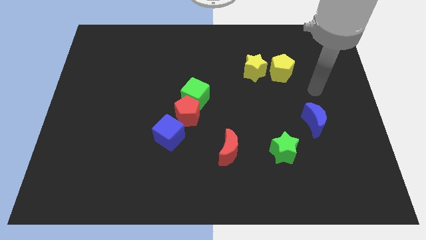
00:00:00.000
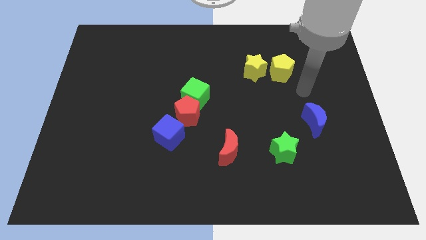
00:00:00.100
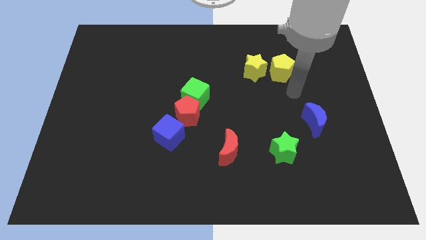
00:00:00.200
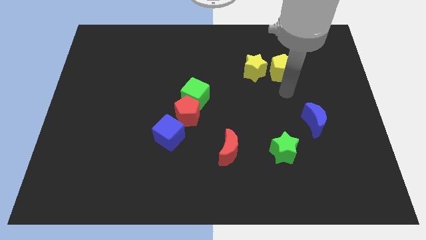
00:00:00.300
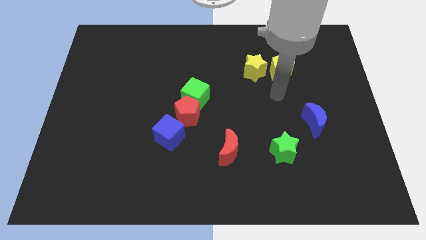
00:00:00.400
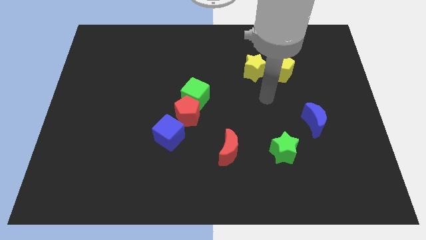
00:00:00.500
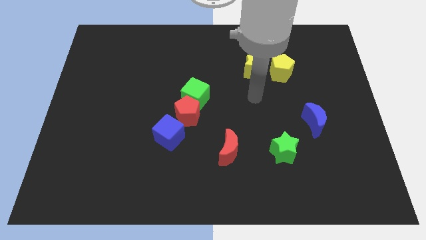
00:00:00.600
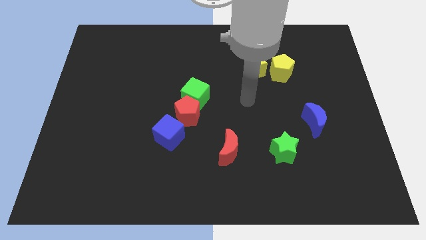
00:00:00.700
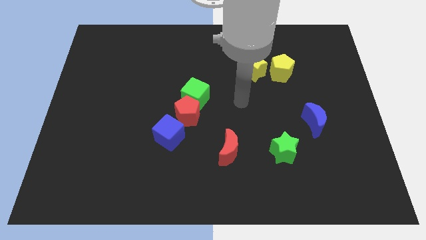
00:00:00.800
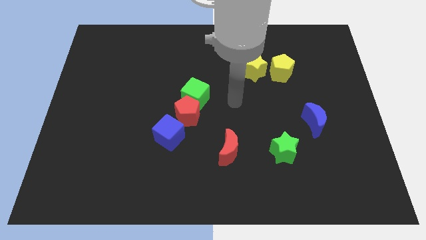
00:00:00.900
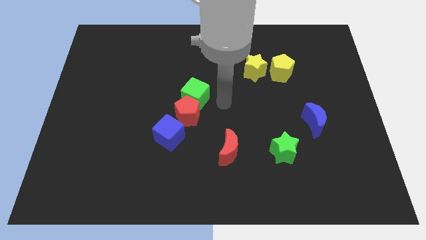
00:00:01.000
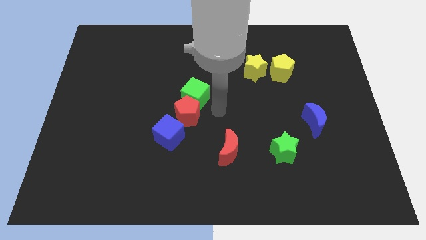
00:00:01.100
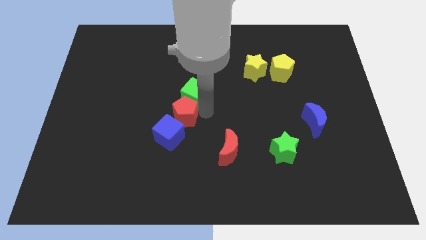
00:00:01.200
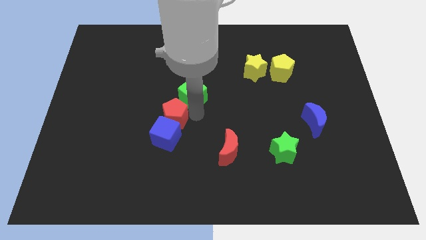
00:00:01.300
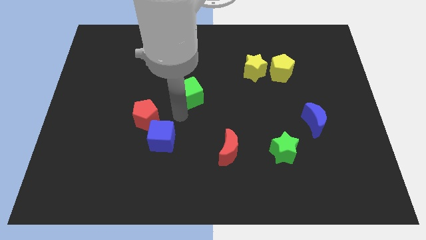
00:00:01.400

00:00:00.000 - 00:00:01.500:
move the green cube away from the red pentagon

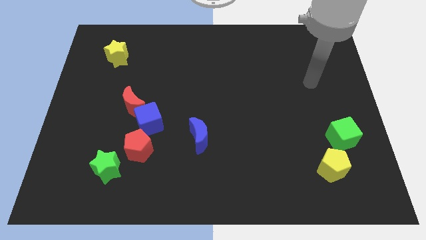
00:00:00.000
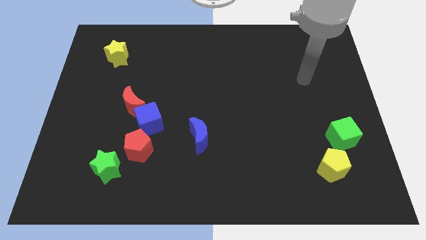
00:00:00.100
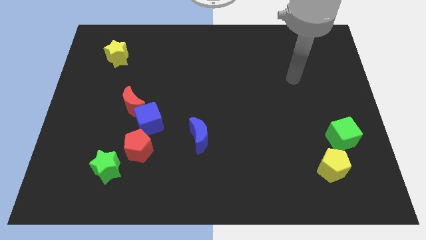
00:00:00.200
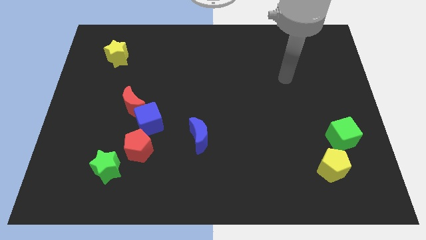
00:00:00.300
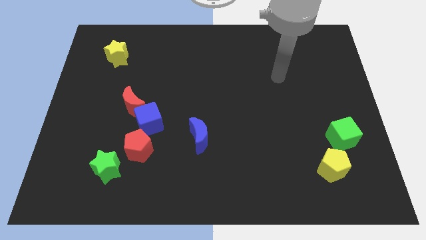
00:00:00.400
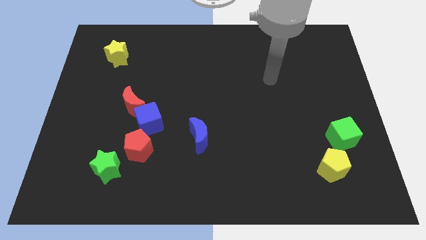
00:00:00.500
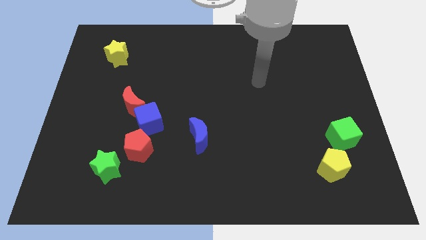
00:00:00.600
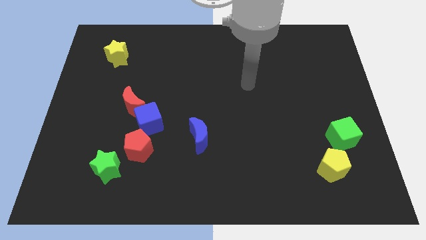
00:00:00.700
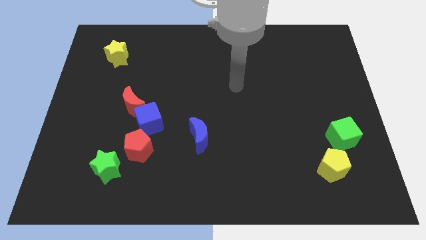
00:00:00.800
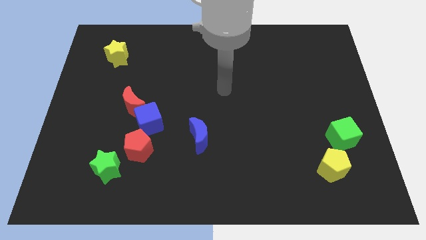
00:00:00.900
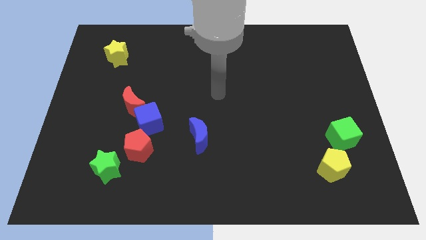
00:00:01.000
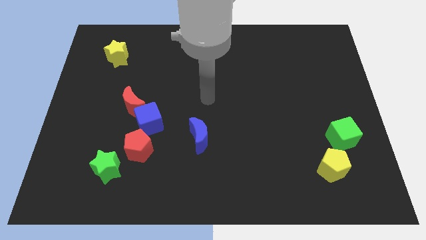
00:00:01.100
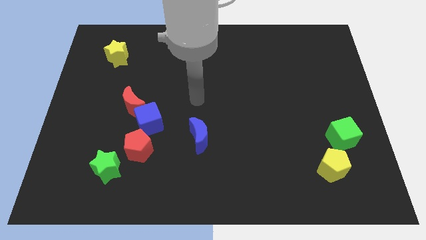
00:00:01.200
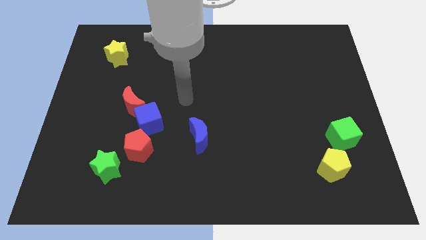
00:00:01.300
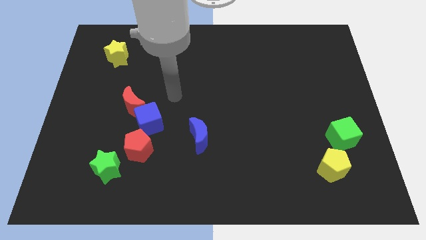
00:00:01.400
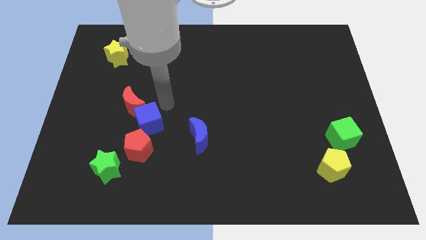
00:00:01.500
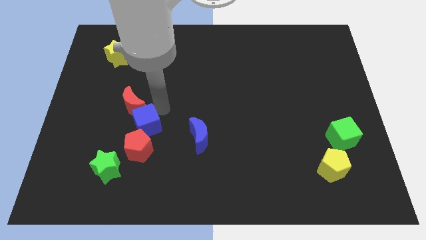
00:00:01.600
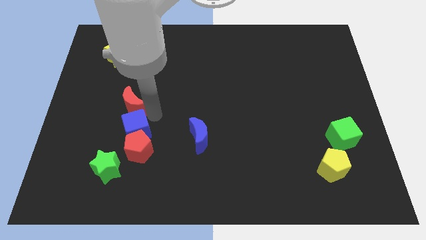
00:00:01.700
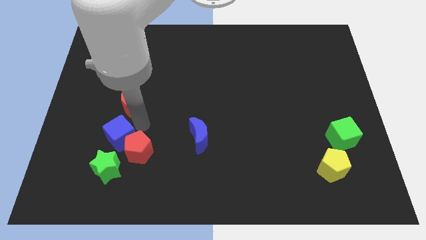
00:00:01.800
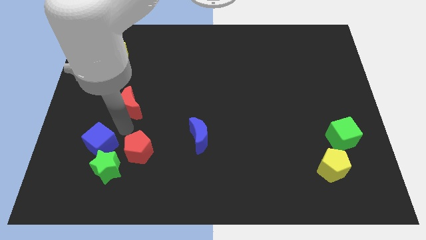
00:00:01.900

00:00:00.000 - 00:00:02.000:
pull the red moon apart from the blue cube

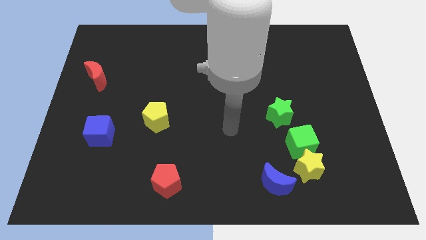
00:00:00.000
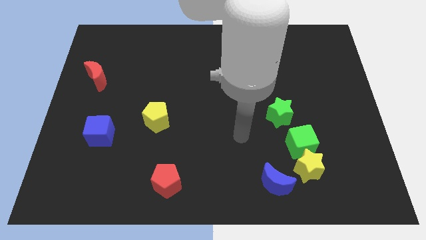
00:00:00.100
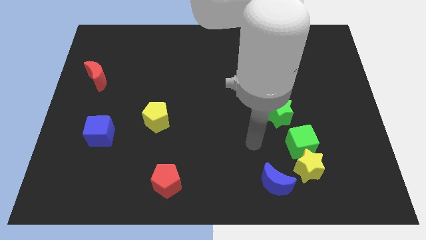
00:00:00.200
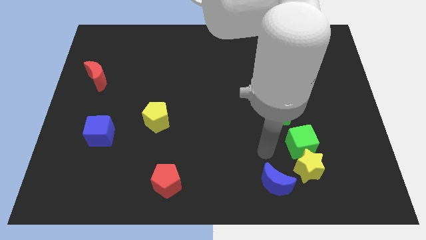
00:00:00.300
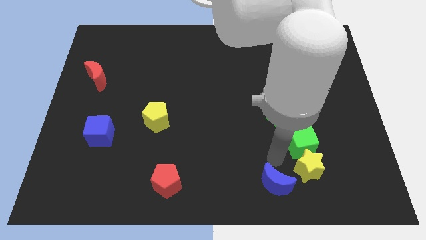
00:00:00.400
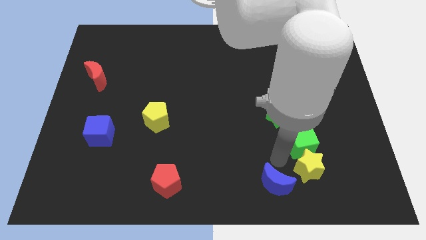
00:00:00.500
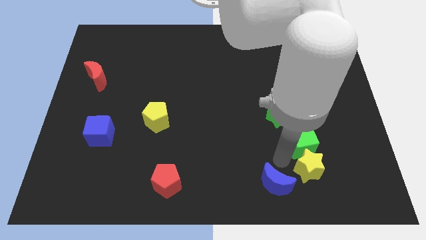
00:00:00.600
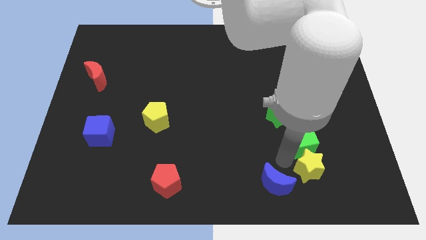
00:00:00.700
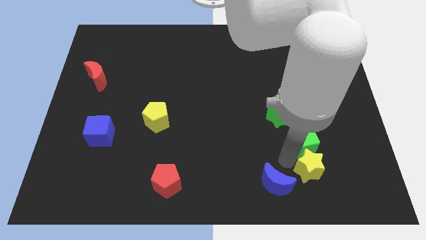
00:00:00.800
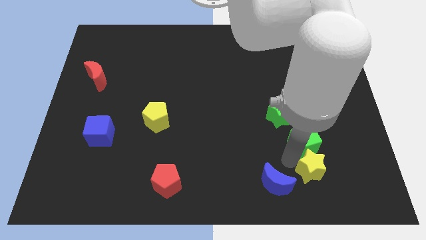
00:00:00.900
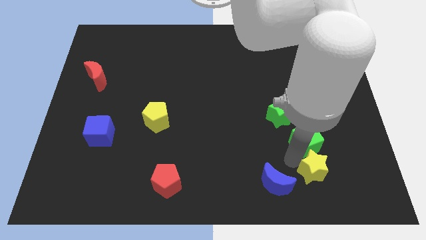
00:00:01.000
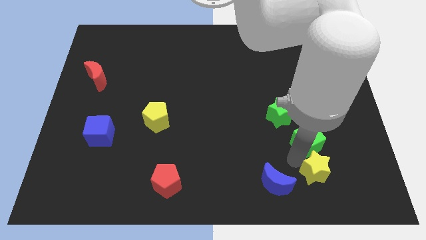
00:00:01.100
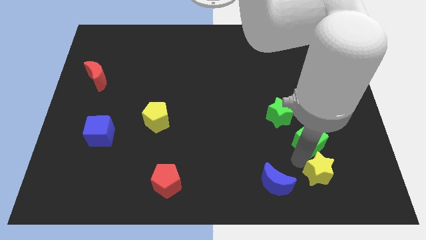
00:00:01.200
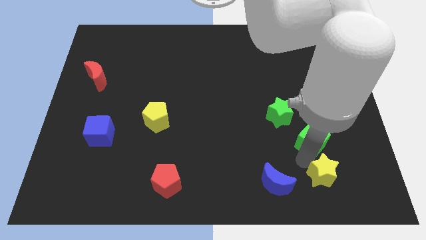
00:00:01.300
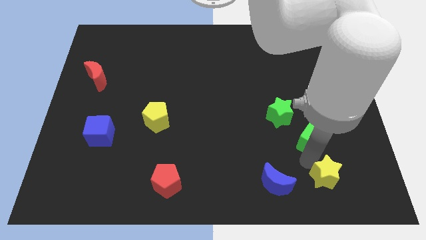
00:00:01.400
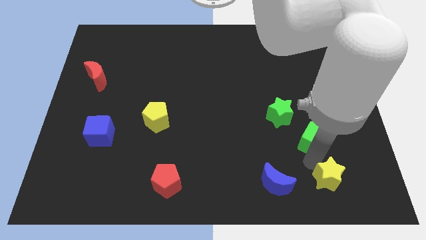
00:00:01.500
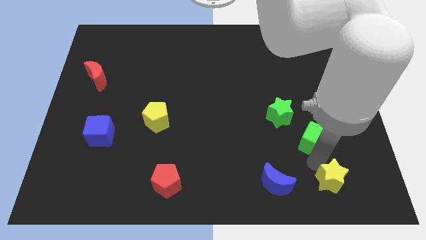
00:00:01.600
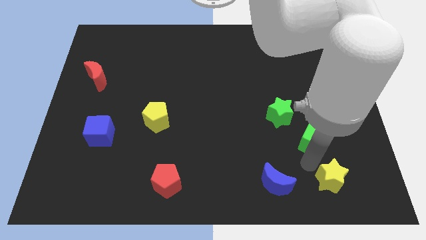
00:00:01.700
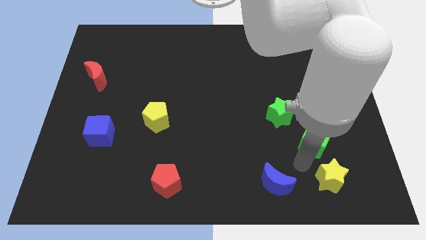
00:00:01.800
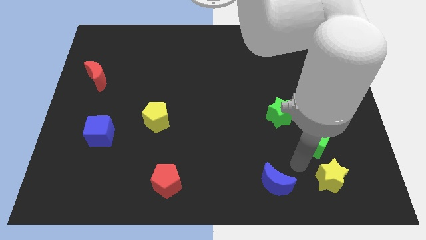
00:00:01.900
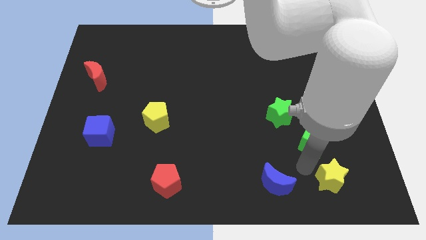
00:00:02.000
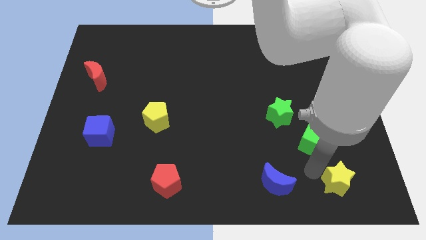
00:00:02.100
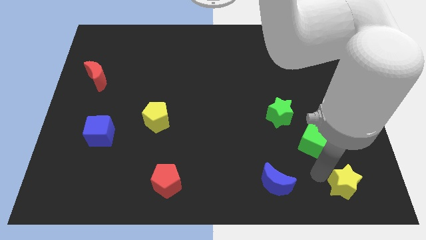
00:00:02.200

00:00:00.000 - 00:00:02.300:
move the yellow star away from the green cube and blue moon

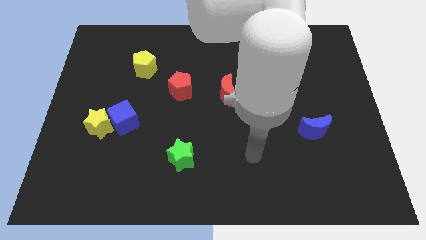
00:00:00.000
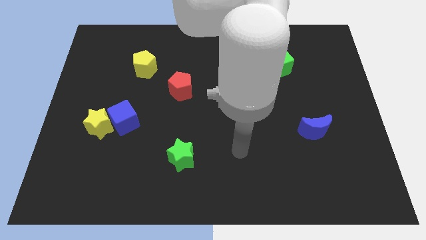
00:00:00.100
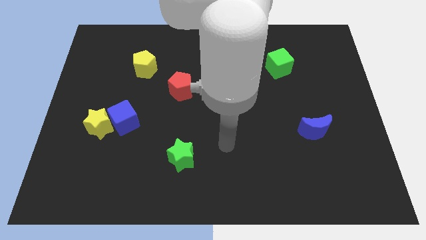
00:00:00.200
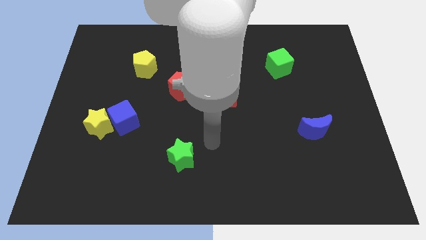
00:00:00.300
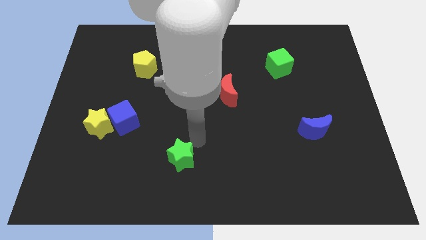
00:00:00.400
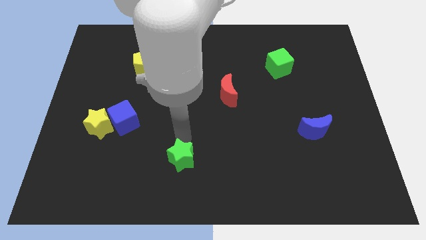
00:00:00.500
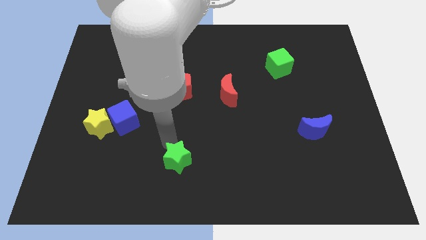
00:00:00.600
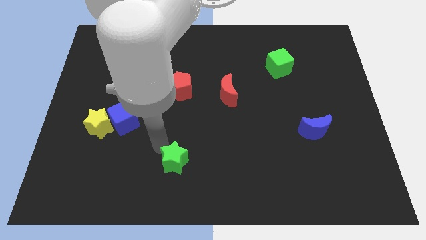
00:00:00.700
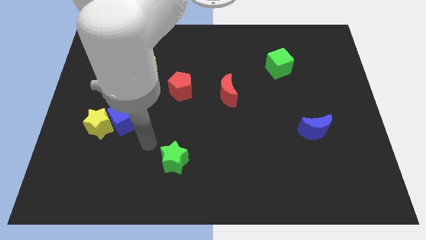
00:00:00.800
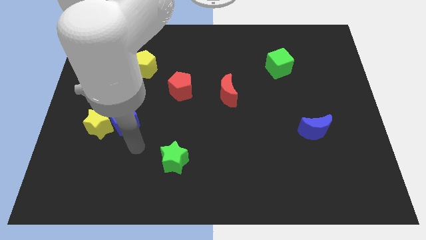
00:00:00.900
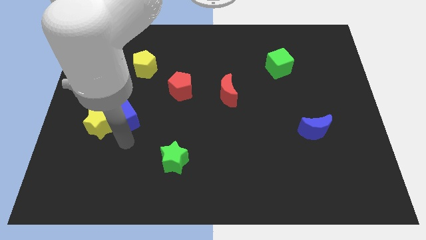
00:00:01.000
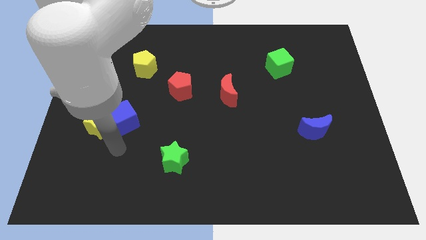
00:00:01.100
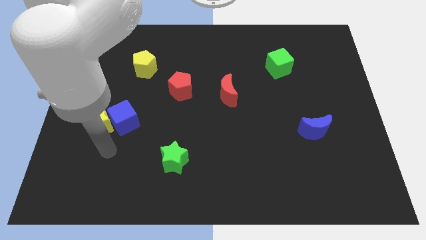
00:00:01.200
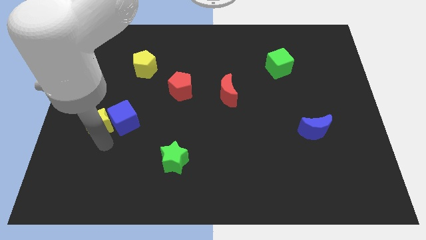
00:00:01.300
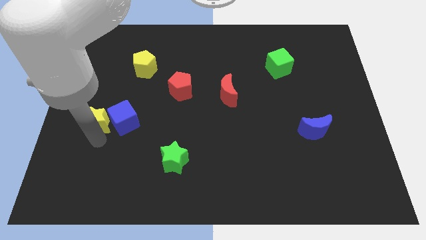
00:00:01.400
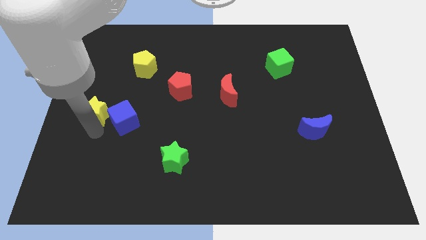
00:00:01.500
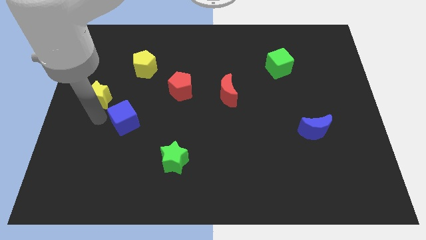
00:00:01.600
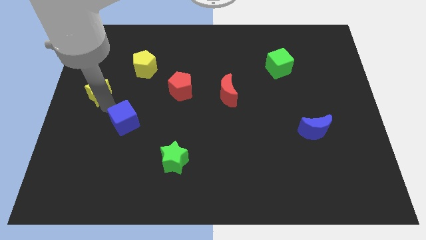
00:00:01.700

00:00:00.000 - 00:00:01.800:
separate the blue cube from the yellow star

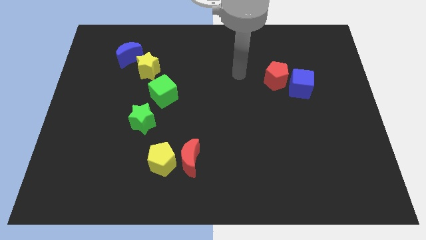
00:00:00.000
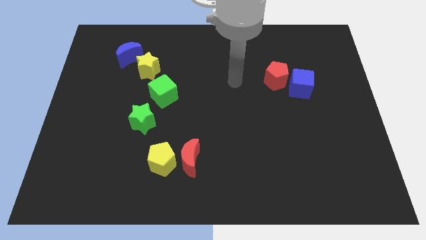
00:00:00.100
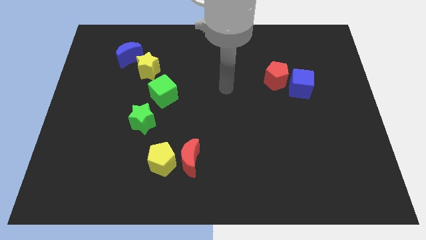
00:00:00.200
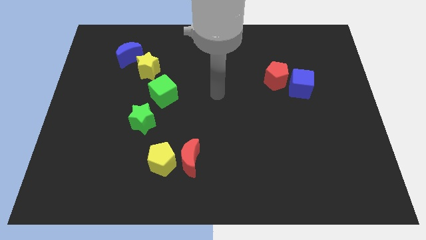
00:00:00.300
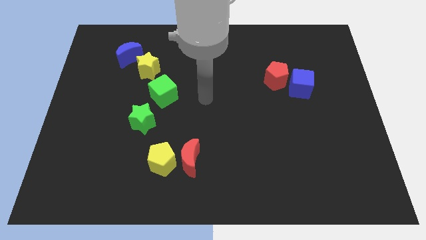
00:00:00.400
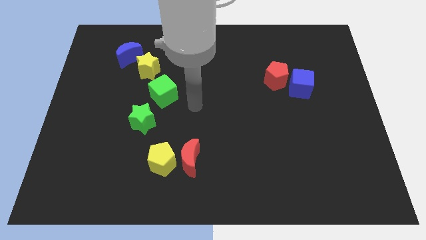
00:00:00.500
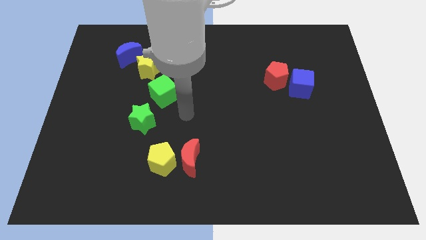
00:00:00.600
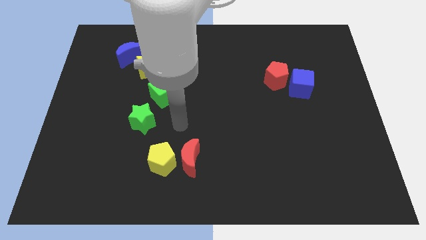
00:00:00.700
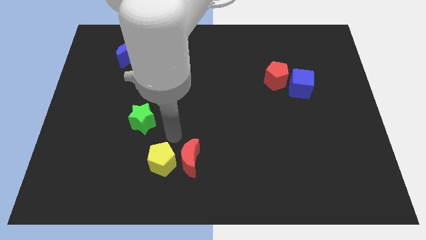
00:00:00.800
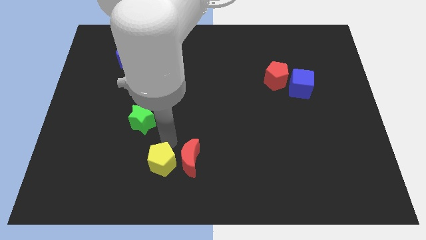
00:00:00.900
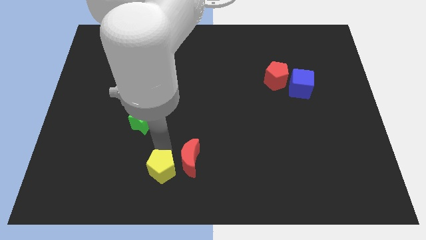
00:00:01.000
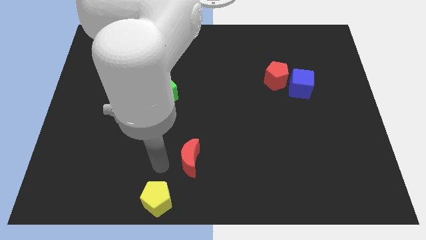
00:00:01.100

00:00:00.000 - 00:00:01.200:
move the red moon away from the yellow pentagon

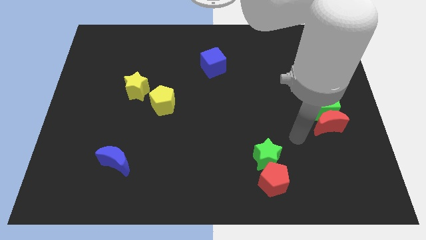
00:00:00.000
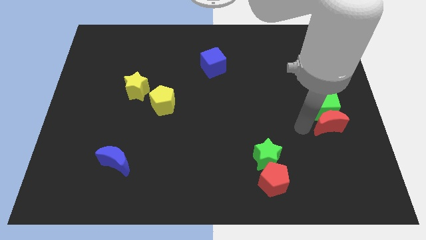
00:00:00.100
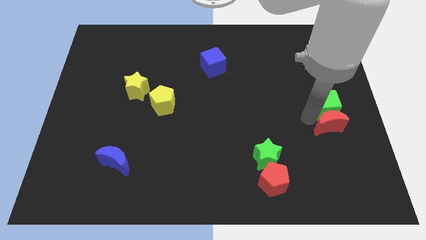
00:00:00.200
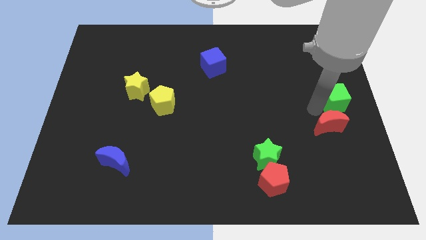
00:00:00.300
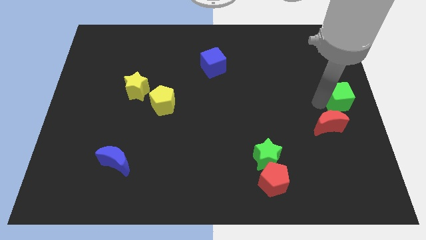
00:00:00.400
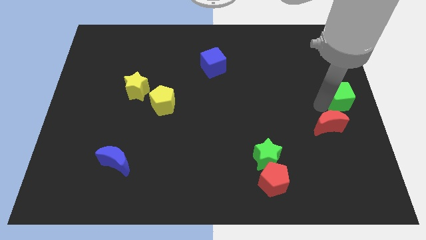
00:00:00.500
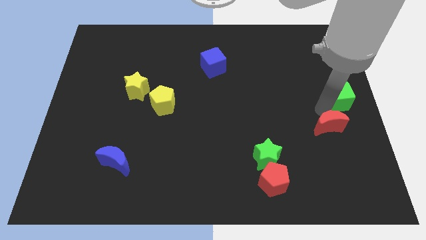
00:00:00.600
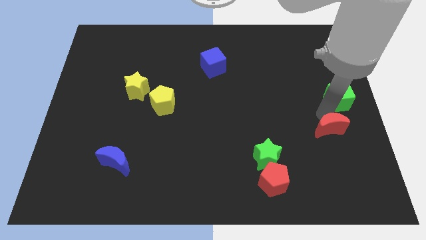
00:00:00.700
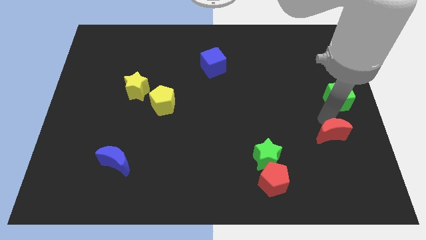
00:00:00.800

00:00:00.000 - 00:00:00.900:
move the red moon away from the green cube
